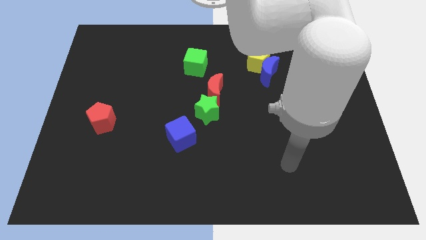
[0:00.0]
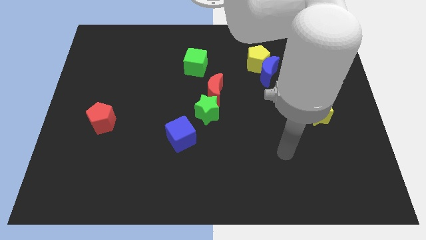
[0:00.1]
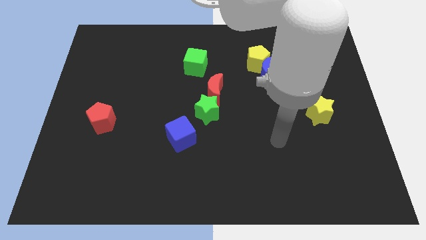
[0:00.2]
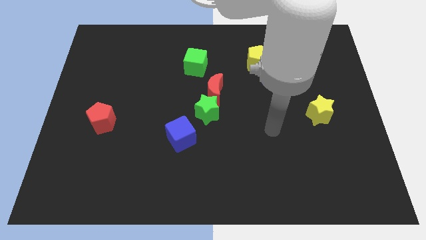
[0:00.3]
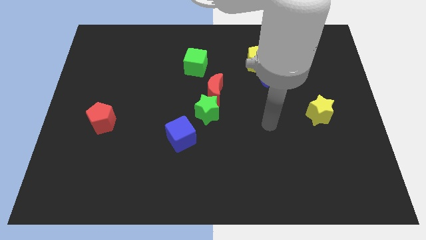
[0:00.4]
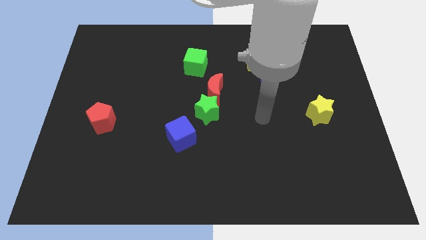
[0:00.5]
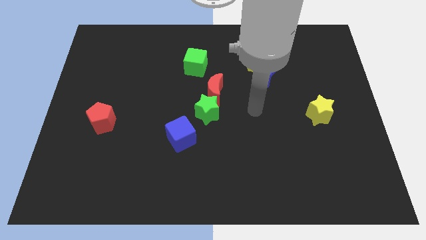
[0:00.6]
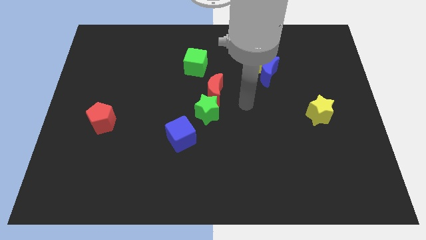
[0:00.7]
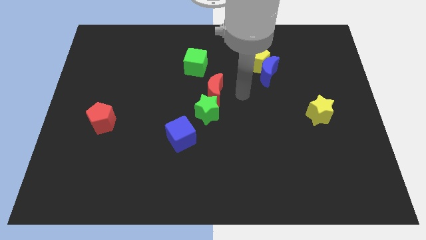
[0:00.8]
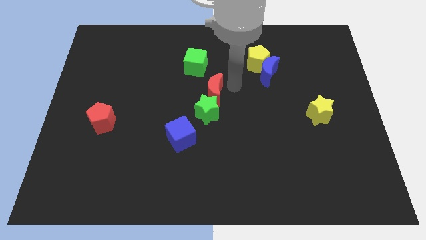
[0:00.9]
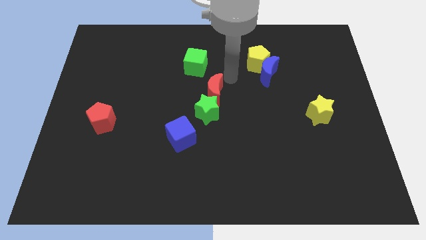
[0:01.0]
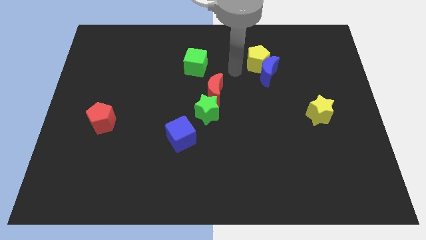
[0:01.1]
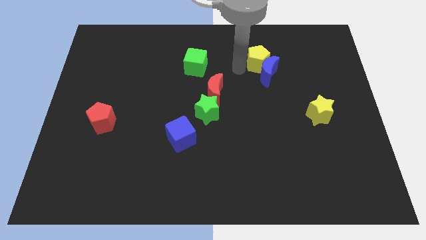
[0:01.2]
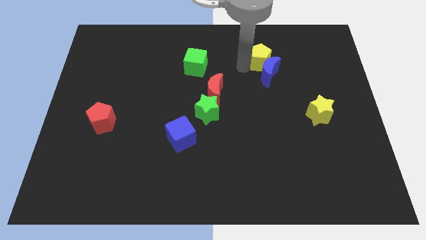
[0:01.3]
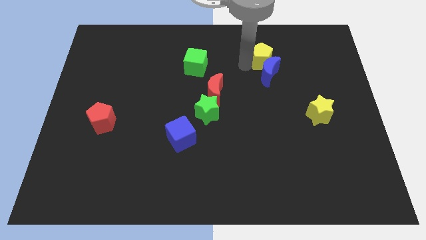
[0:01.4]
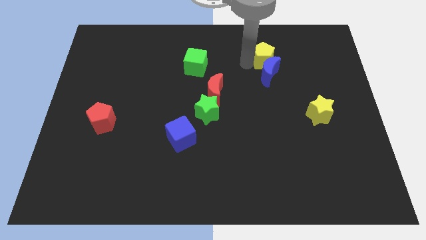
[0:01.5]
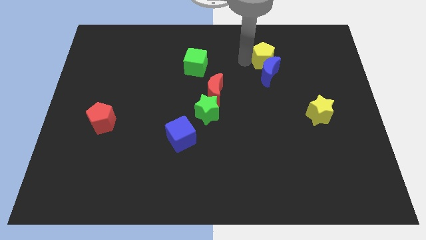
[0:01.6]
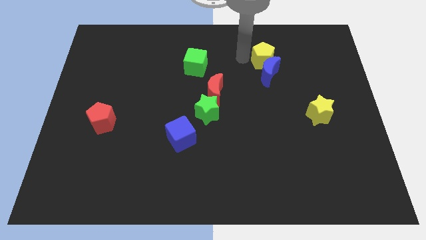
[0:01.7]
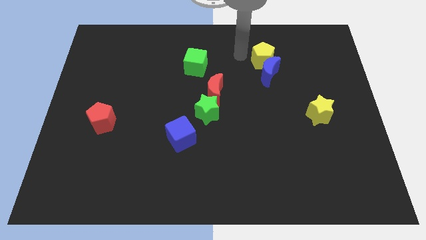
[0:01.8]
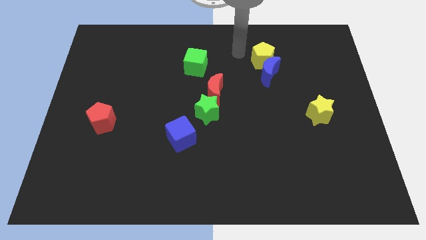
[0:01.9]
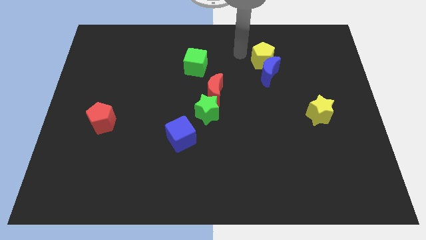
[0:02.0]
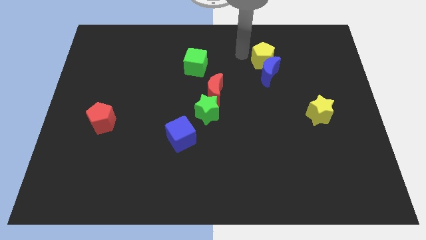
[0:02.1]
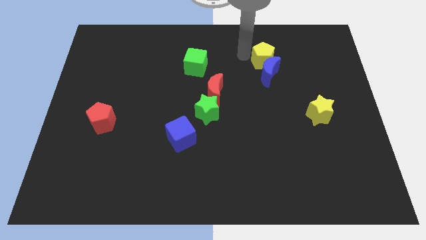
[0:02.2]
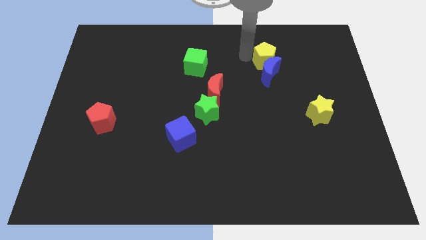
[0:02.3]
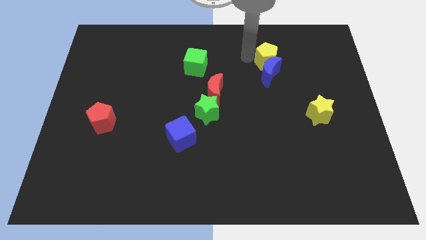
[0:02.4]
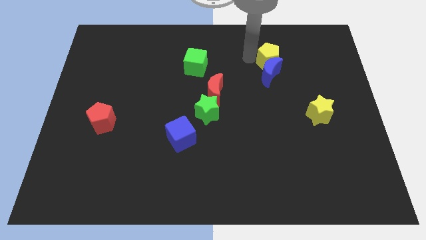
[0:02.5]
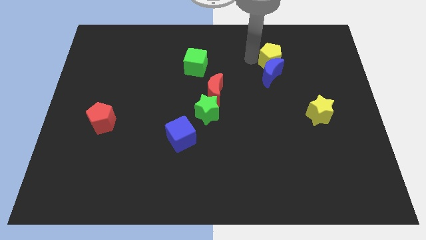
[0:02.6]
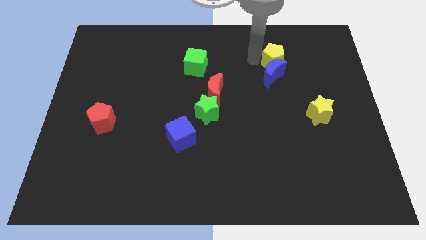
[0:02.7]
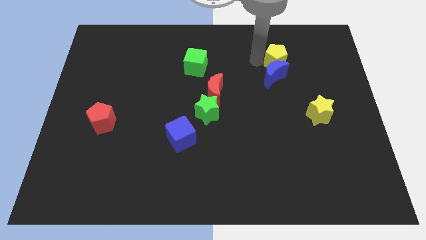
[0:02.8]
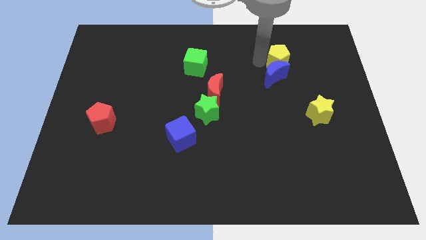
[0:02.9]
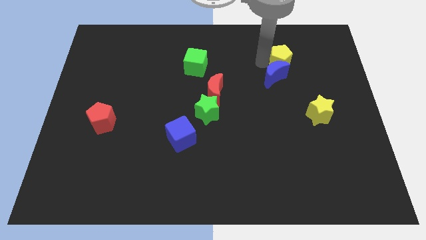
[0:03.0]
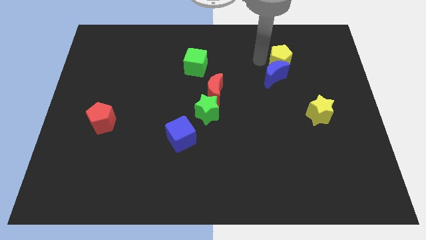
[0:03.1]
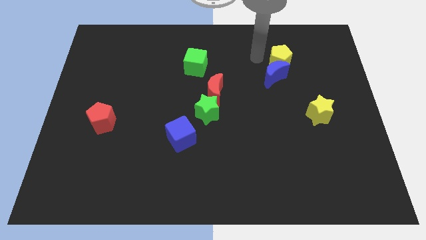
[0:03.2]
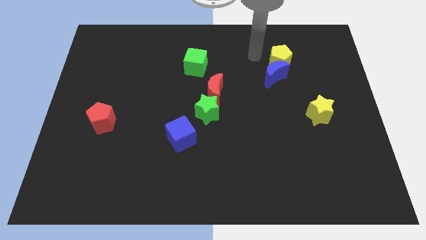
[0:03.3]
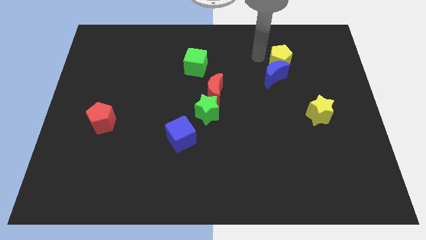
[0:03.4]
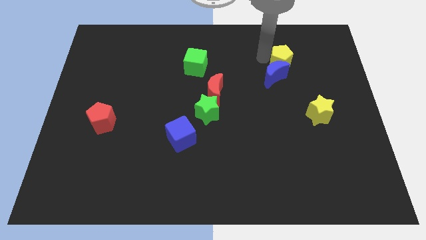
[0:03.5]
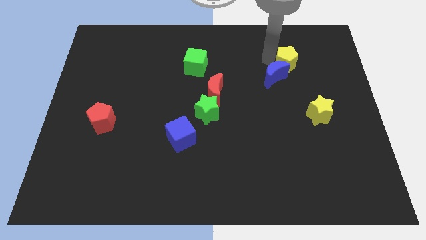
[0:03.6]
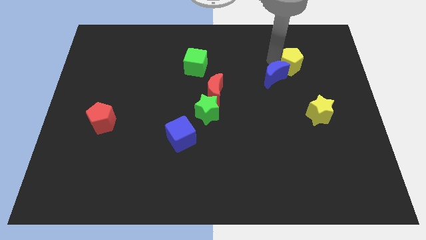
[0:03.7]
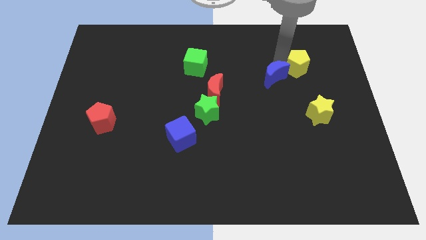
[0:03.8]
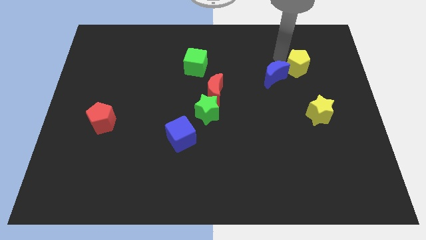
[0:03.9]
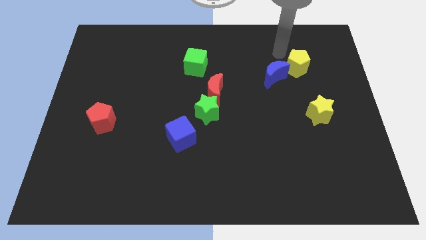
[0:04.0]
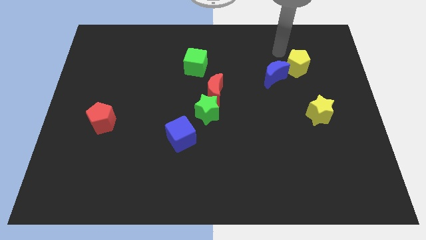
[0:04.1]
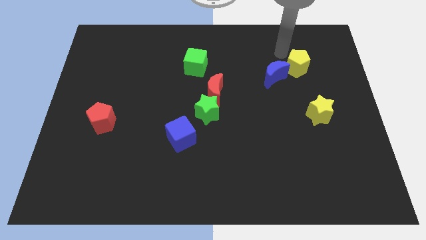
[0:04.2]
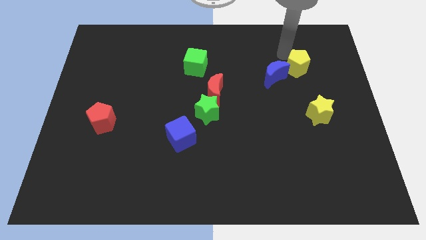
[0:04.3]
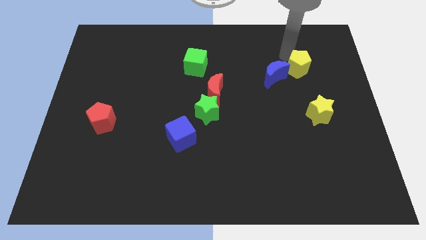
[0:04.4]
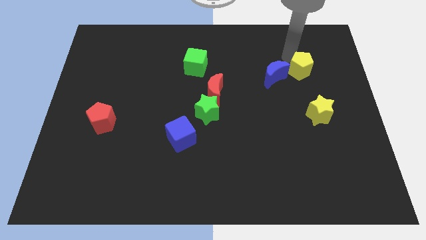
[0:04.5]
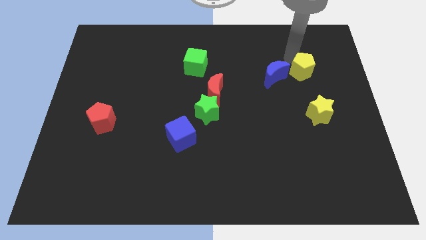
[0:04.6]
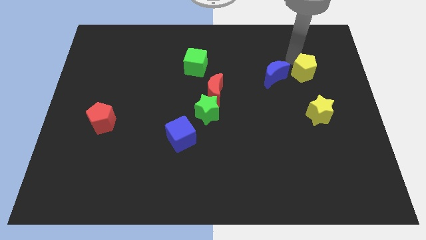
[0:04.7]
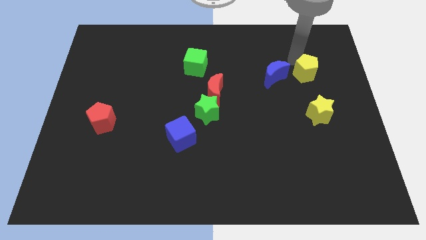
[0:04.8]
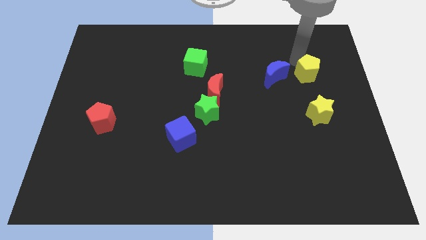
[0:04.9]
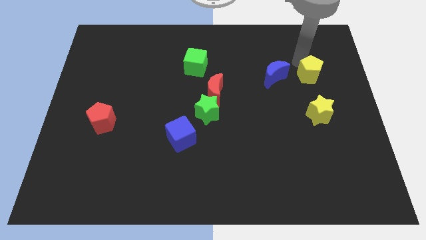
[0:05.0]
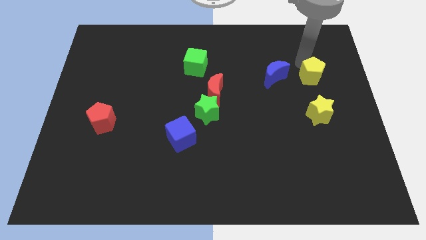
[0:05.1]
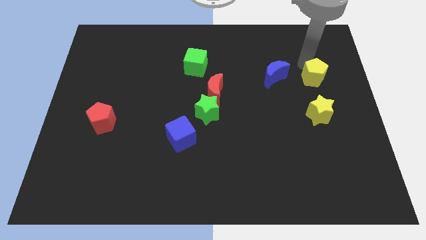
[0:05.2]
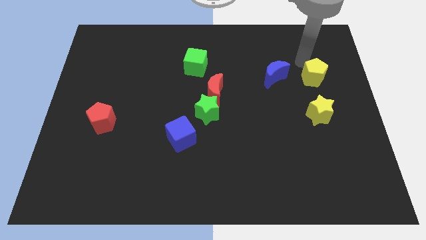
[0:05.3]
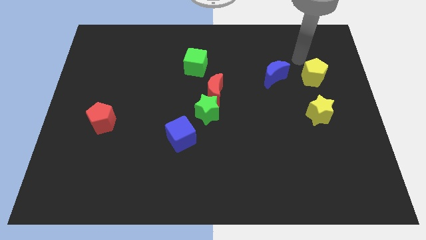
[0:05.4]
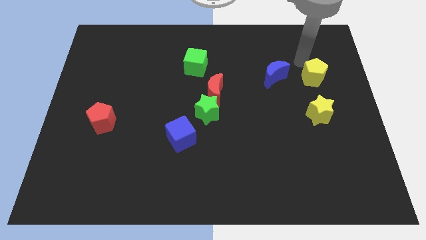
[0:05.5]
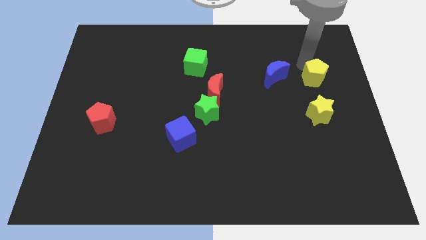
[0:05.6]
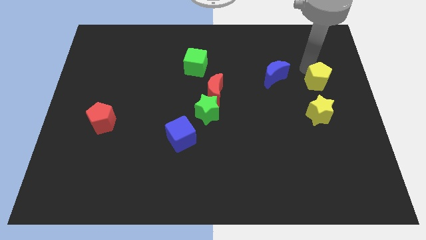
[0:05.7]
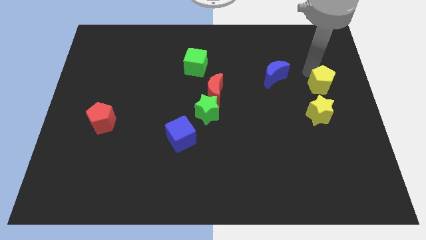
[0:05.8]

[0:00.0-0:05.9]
put the yellow pentagon to the center right

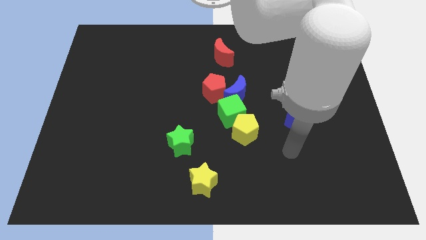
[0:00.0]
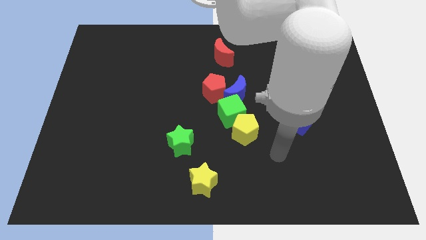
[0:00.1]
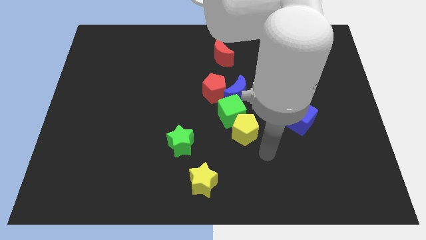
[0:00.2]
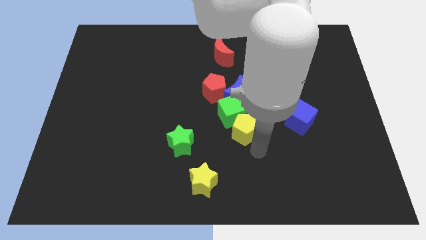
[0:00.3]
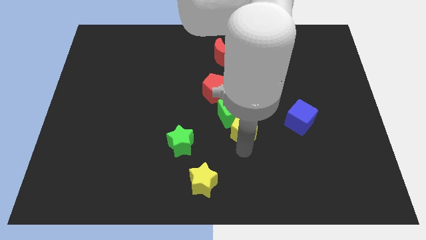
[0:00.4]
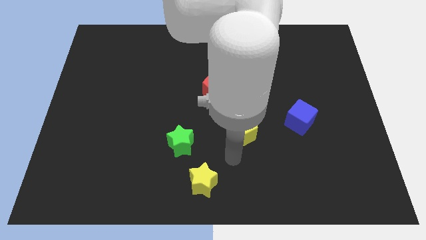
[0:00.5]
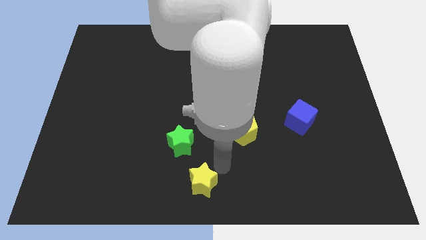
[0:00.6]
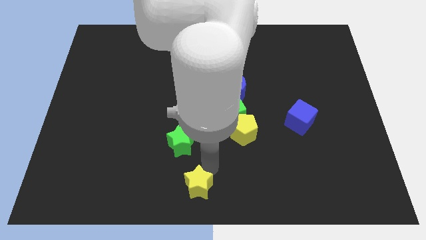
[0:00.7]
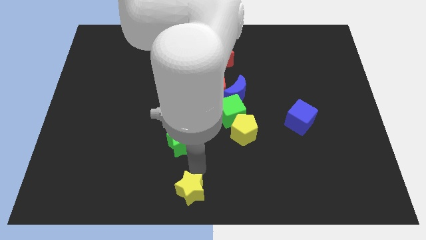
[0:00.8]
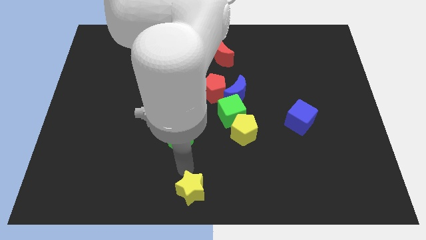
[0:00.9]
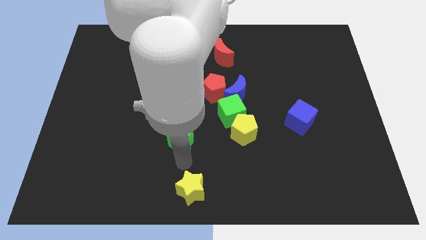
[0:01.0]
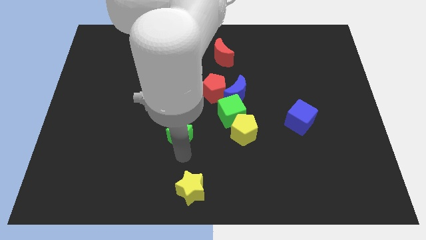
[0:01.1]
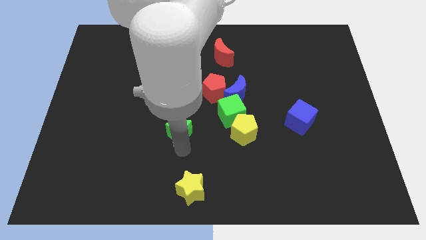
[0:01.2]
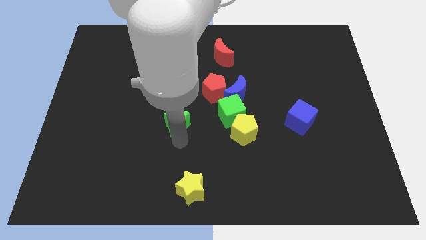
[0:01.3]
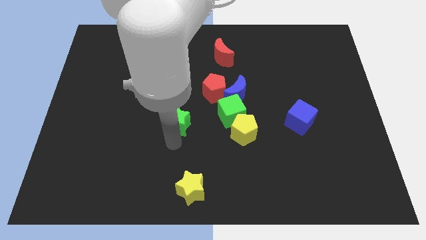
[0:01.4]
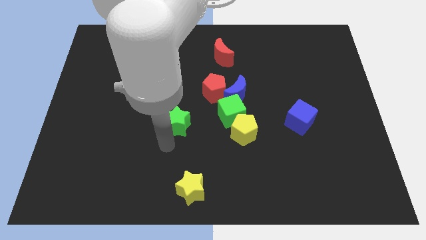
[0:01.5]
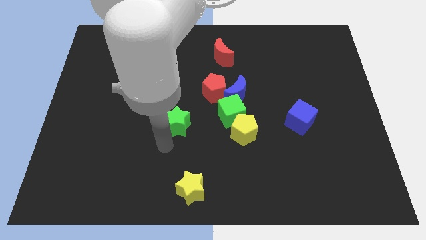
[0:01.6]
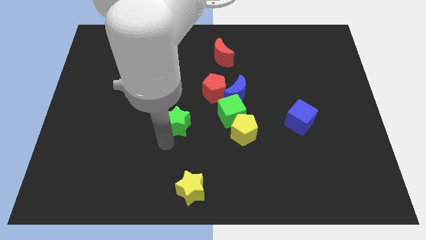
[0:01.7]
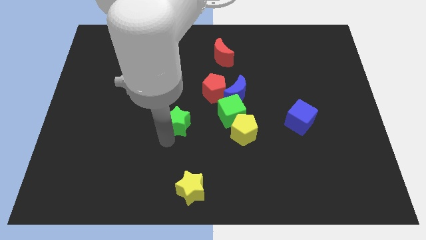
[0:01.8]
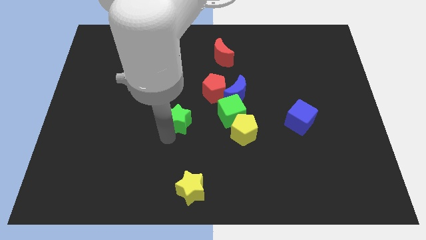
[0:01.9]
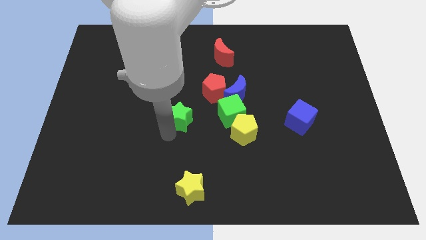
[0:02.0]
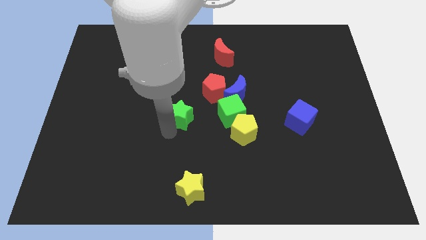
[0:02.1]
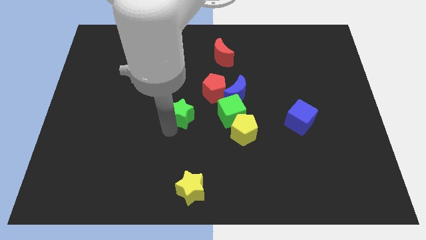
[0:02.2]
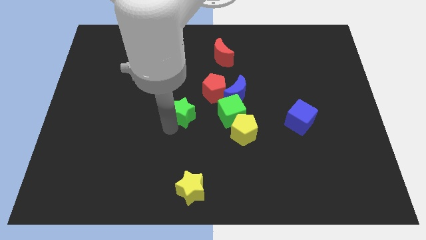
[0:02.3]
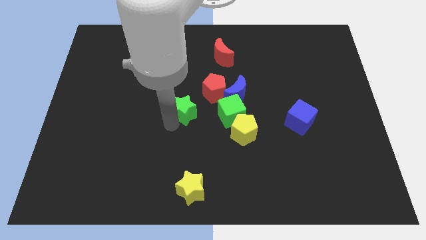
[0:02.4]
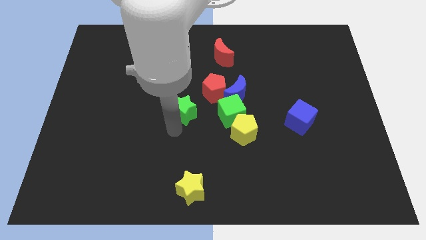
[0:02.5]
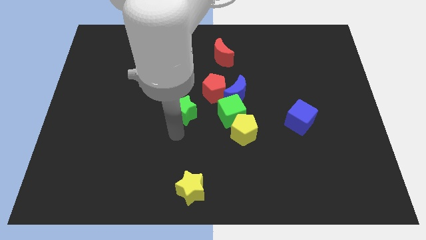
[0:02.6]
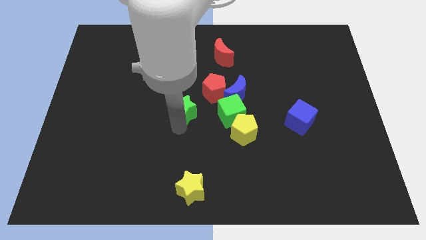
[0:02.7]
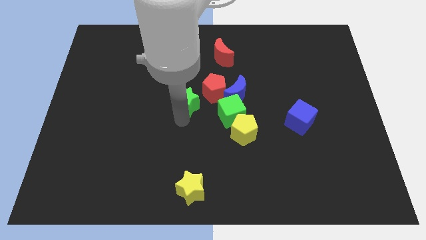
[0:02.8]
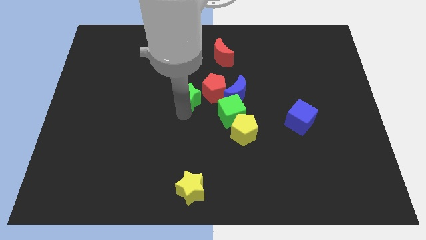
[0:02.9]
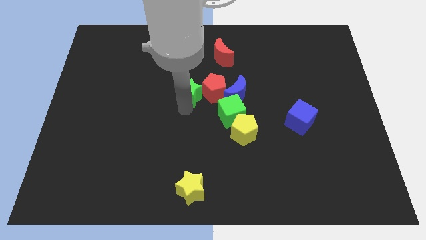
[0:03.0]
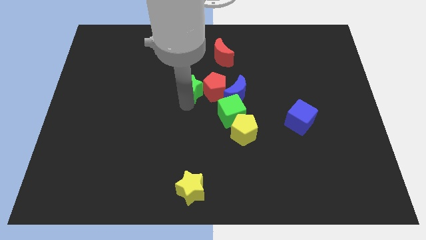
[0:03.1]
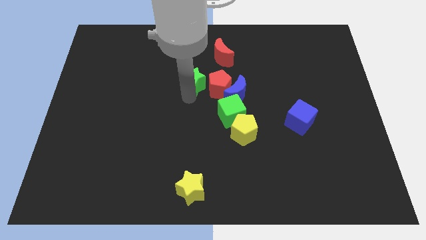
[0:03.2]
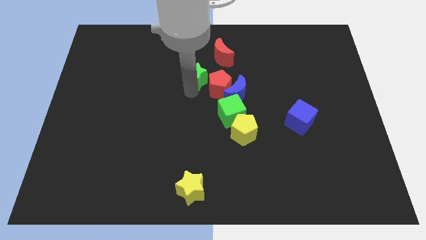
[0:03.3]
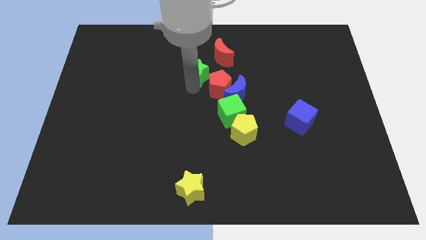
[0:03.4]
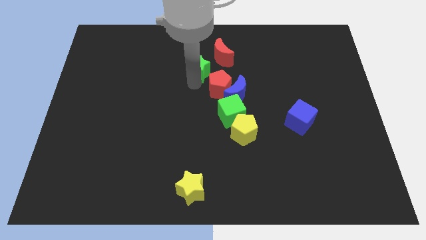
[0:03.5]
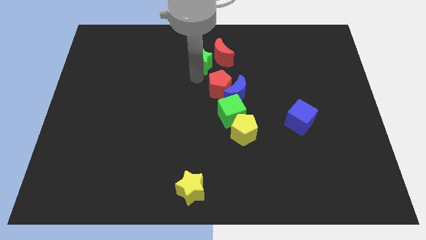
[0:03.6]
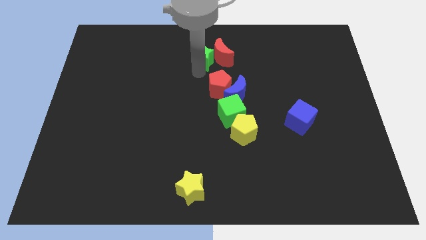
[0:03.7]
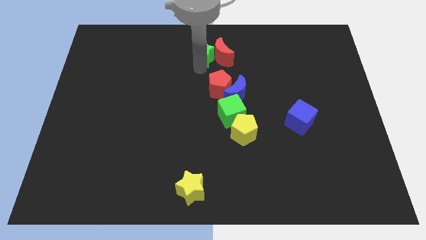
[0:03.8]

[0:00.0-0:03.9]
move the green star to the top side
